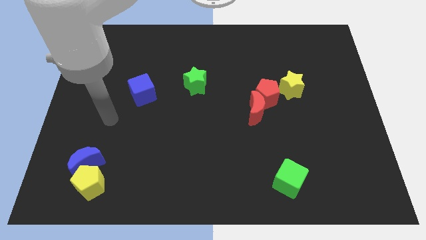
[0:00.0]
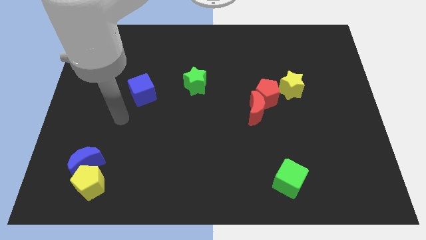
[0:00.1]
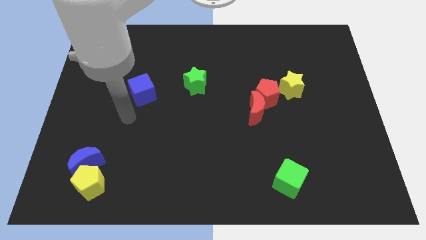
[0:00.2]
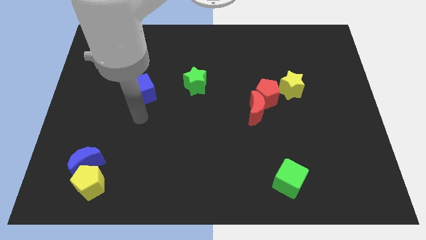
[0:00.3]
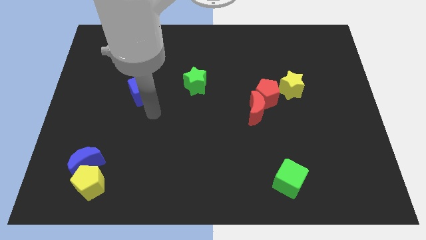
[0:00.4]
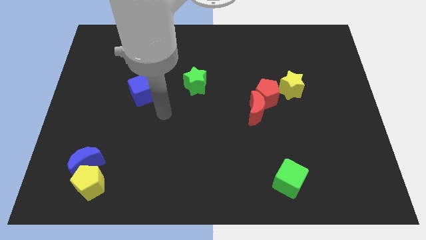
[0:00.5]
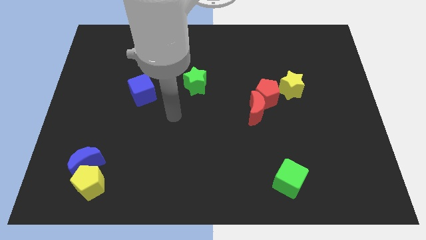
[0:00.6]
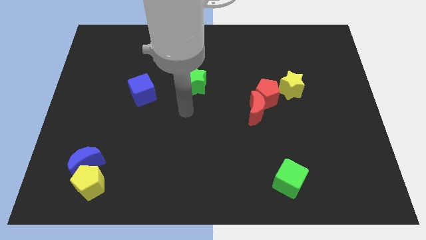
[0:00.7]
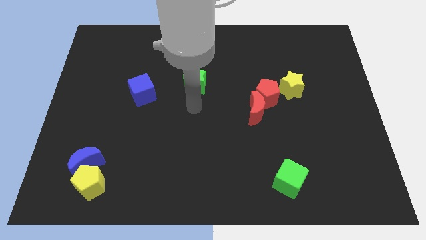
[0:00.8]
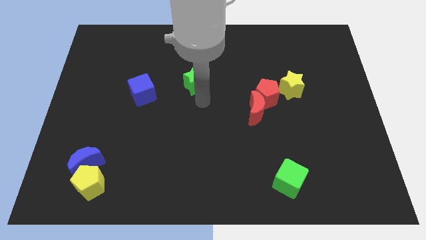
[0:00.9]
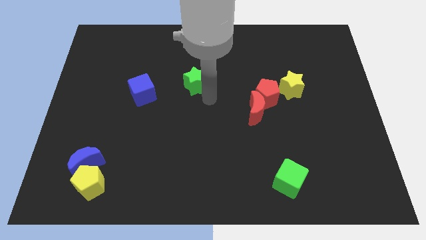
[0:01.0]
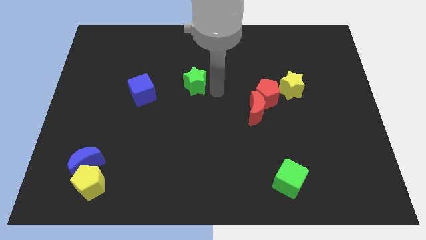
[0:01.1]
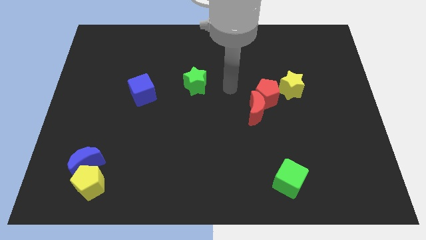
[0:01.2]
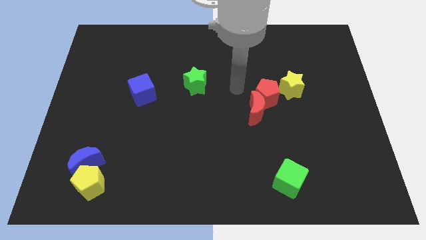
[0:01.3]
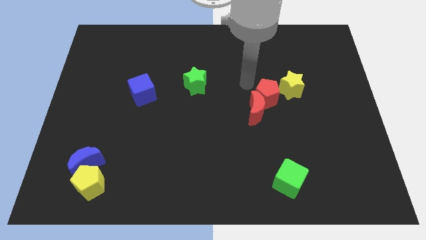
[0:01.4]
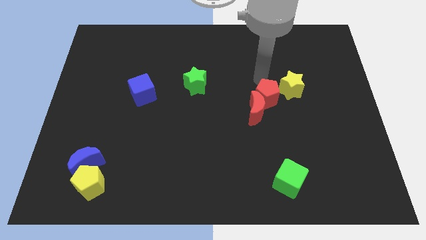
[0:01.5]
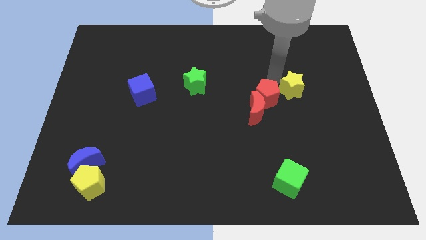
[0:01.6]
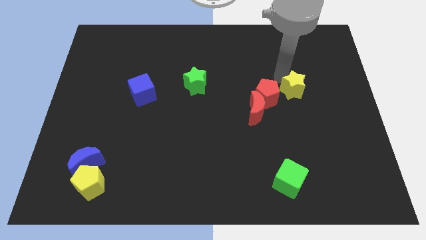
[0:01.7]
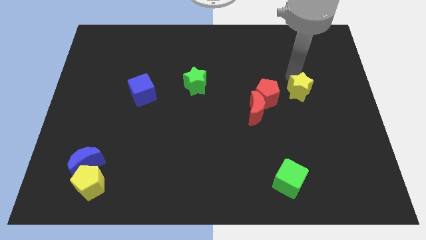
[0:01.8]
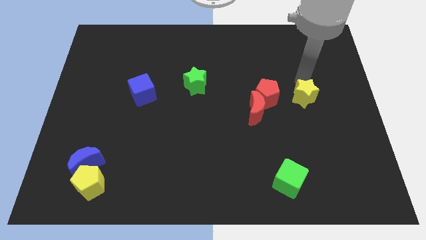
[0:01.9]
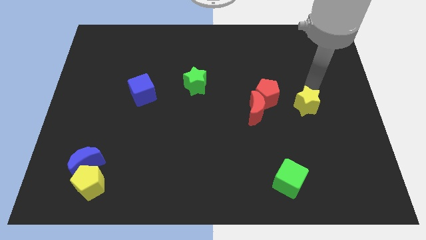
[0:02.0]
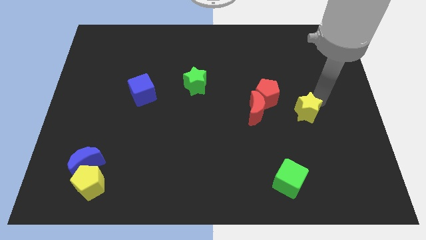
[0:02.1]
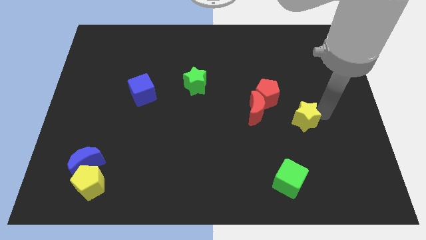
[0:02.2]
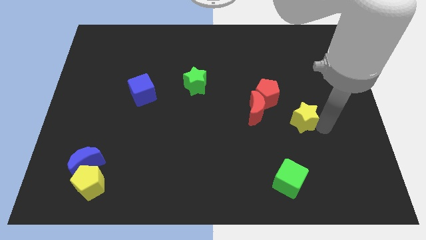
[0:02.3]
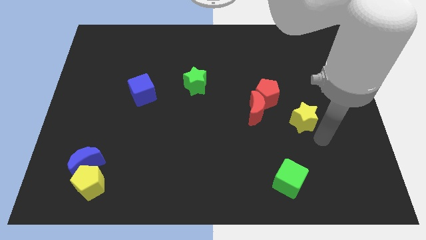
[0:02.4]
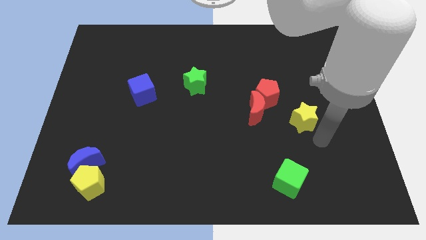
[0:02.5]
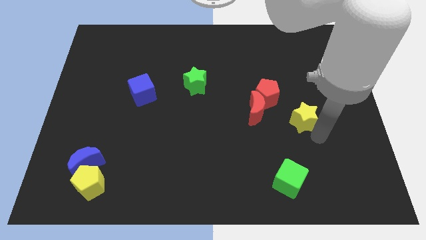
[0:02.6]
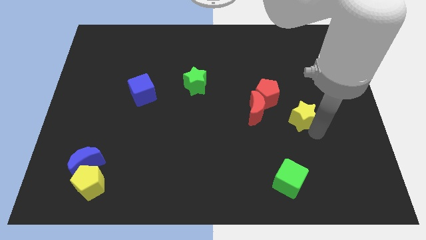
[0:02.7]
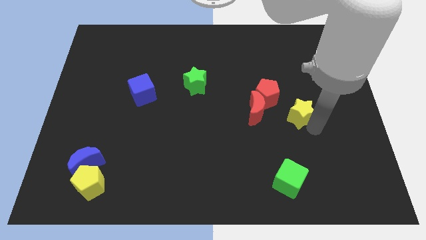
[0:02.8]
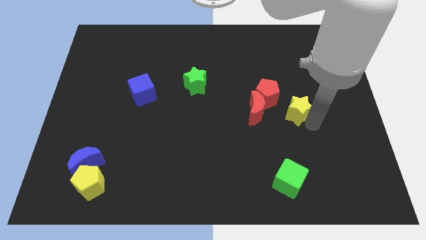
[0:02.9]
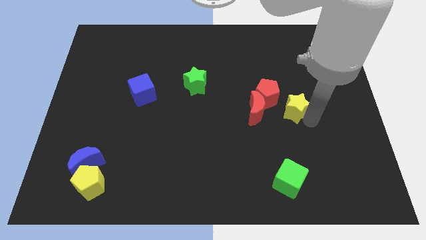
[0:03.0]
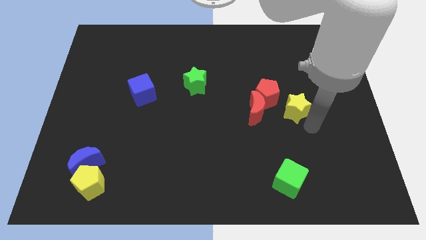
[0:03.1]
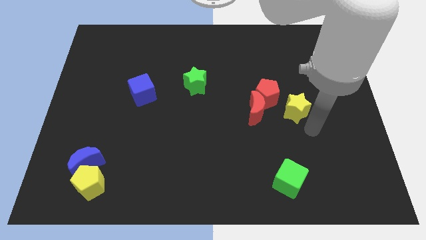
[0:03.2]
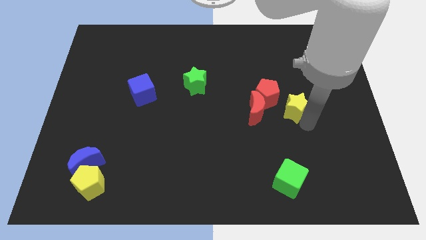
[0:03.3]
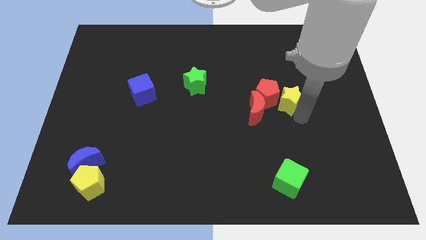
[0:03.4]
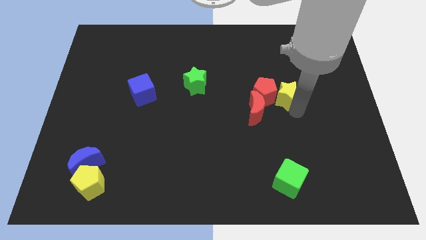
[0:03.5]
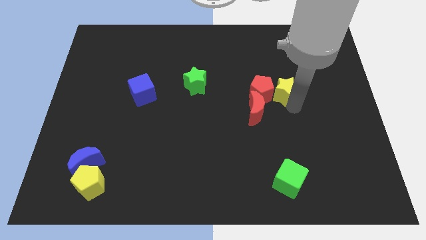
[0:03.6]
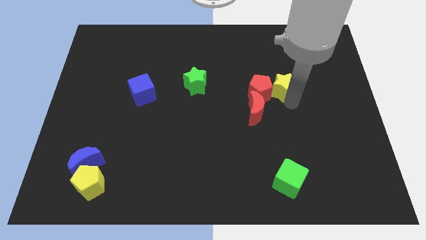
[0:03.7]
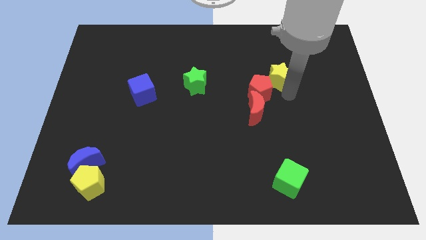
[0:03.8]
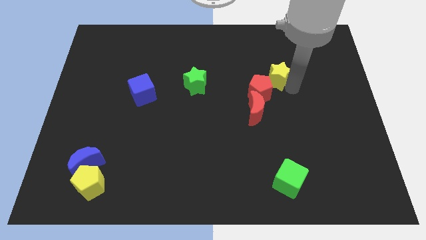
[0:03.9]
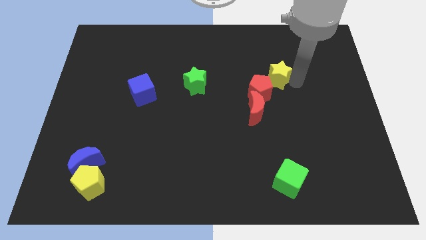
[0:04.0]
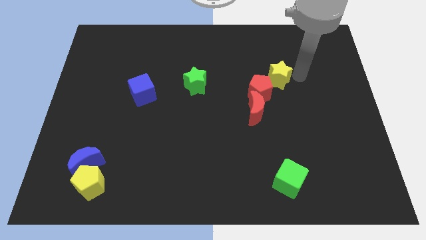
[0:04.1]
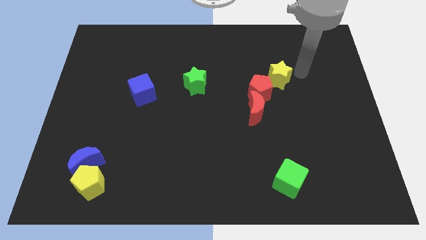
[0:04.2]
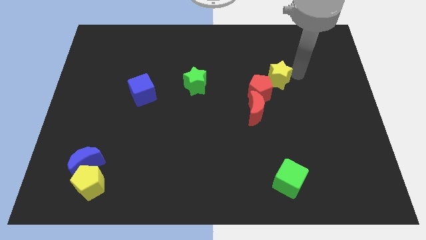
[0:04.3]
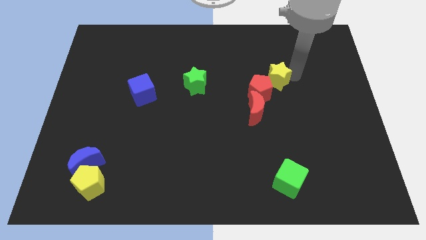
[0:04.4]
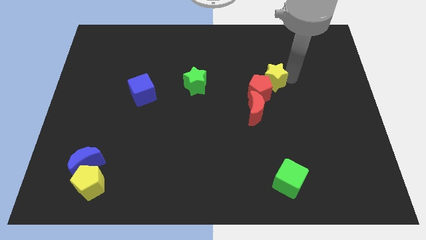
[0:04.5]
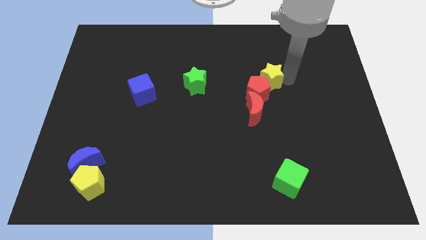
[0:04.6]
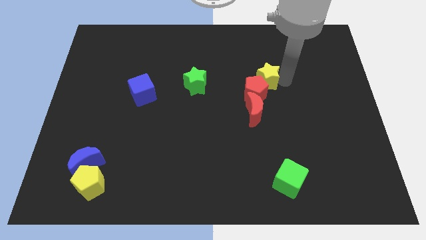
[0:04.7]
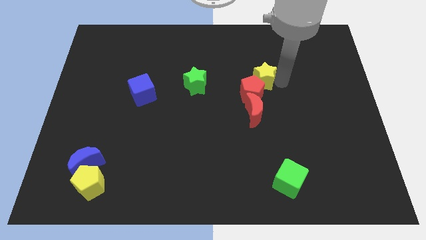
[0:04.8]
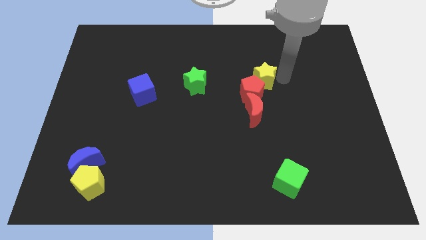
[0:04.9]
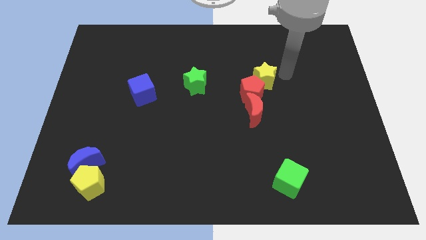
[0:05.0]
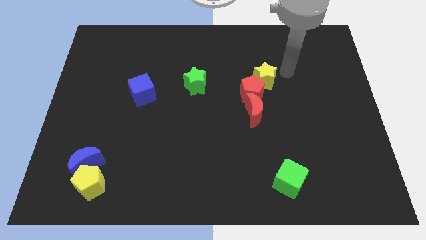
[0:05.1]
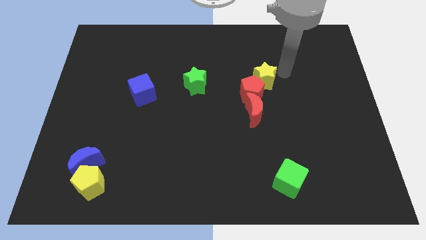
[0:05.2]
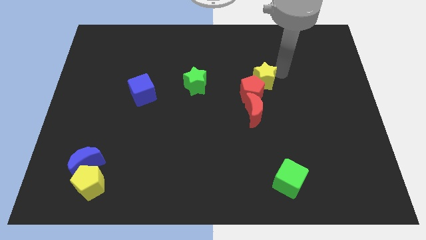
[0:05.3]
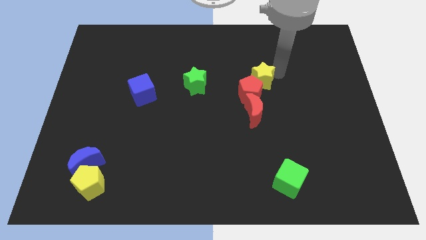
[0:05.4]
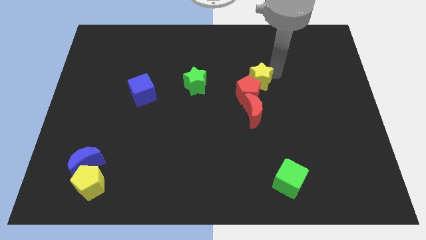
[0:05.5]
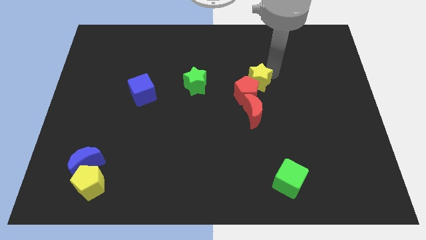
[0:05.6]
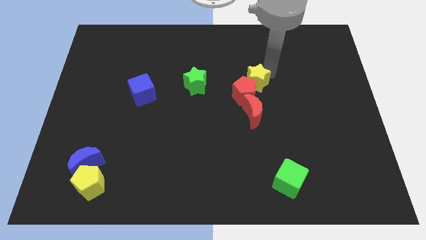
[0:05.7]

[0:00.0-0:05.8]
put the yellow star to the middle

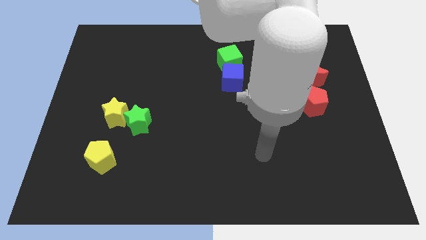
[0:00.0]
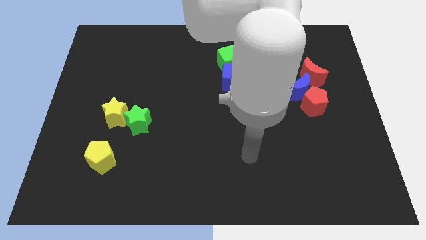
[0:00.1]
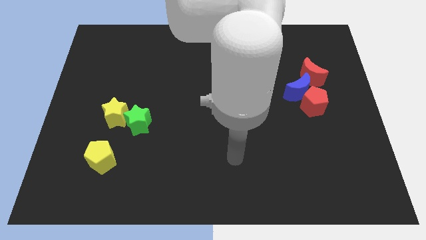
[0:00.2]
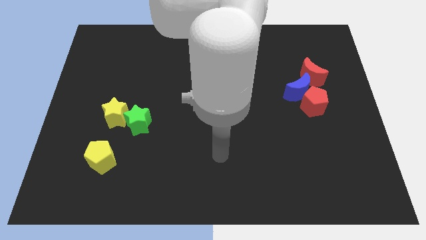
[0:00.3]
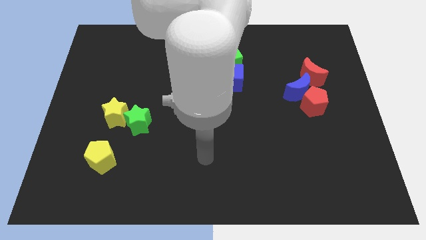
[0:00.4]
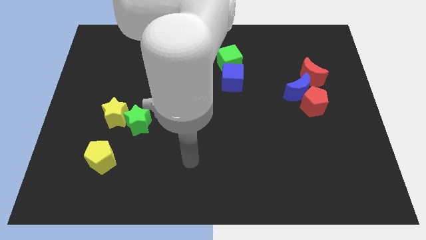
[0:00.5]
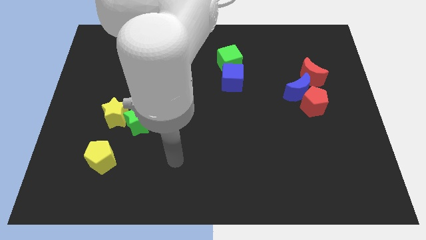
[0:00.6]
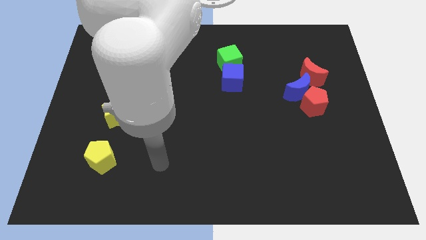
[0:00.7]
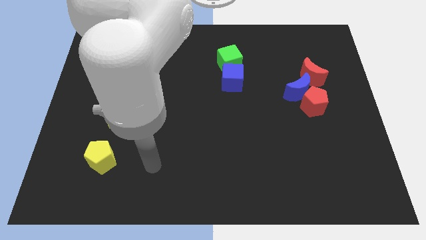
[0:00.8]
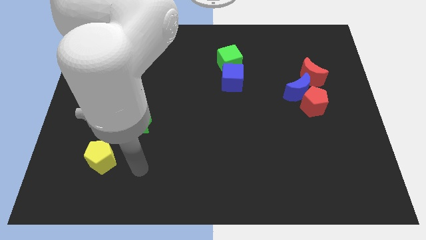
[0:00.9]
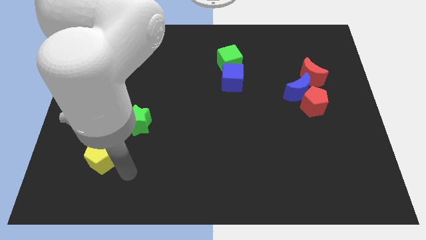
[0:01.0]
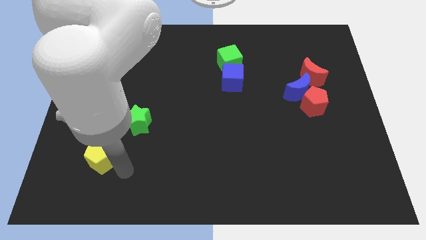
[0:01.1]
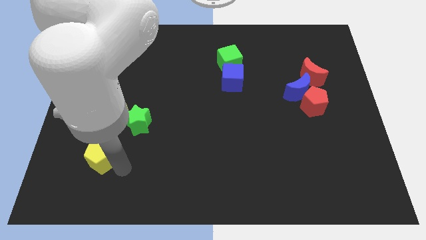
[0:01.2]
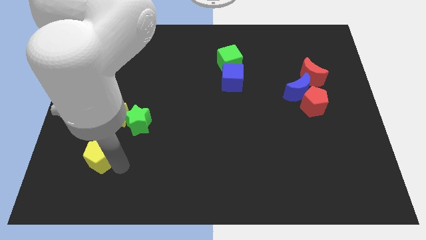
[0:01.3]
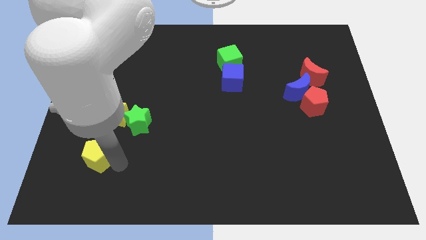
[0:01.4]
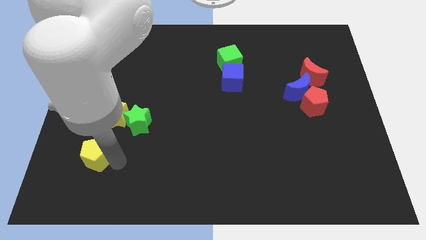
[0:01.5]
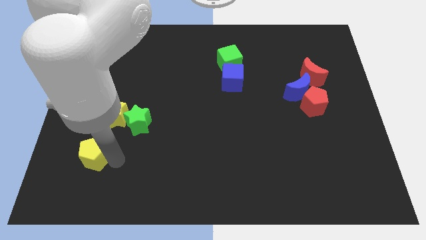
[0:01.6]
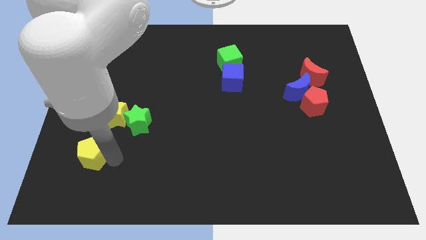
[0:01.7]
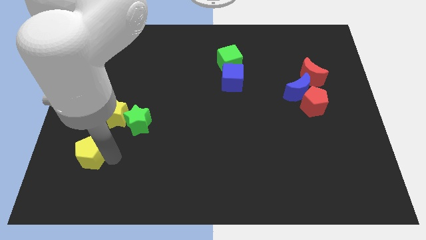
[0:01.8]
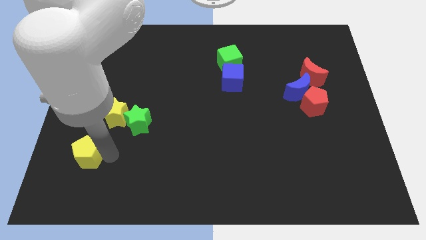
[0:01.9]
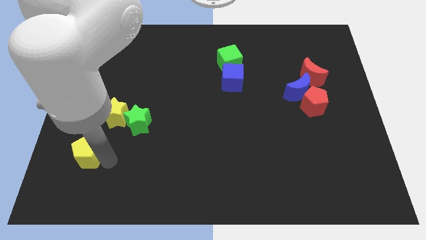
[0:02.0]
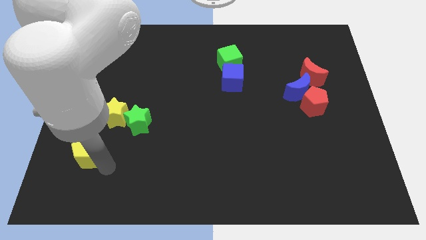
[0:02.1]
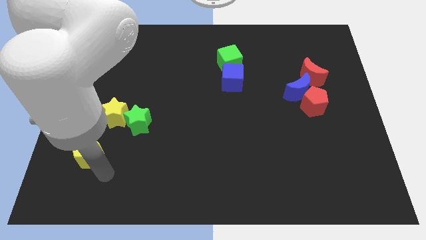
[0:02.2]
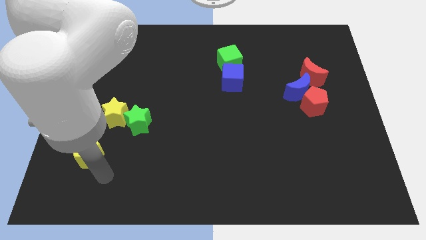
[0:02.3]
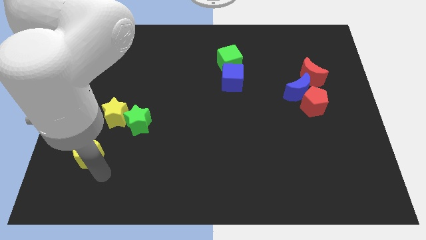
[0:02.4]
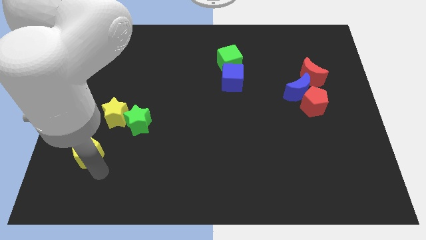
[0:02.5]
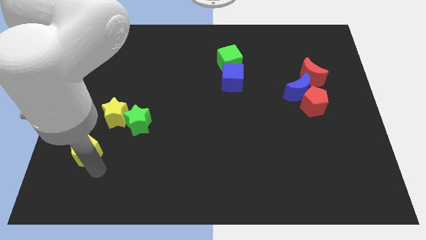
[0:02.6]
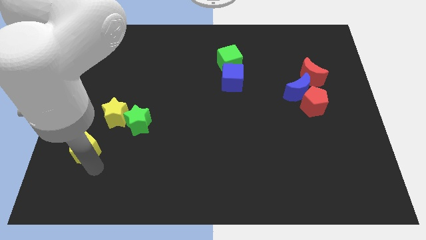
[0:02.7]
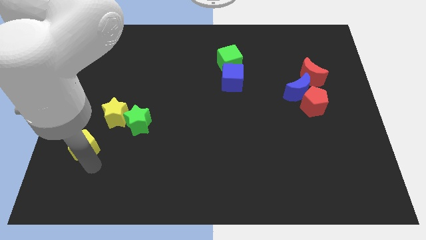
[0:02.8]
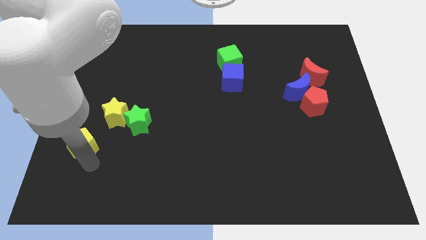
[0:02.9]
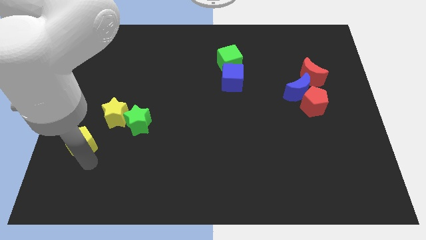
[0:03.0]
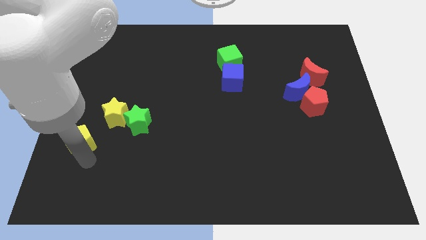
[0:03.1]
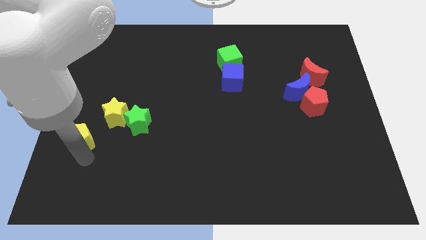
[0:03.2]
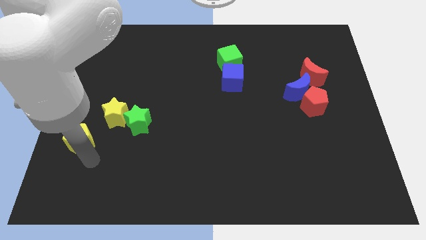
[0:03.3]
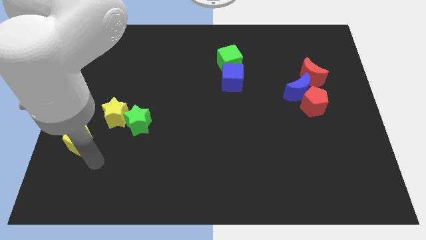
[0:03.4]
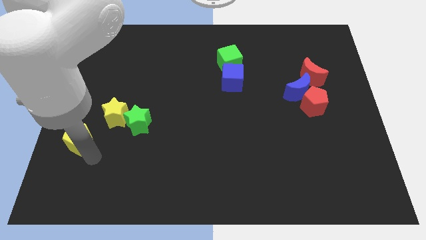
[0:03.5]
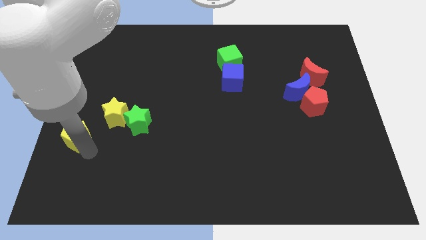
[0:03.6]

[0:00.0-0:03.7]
move the yellow pentagon to the center left
